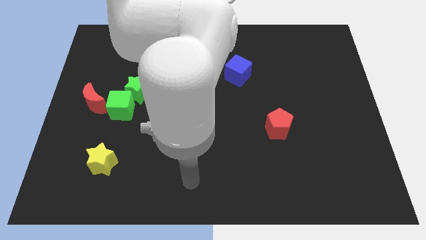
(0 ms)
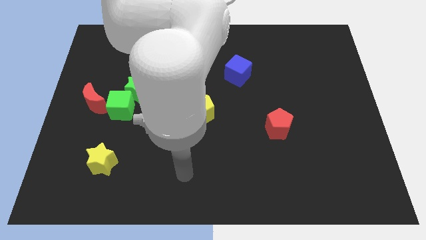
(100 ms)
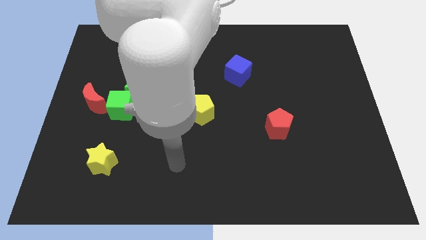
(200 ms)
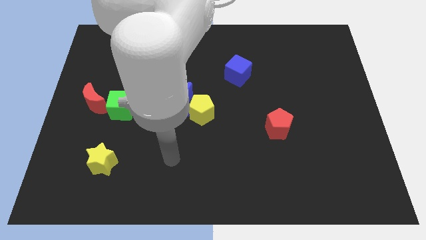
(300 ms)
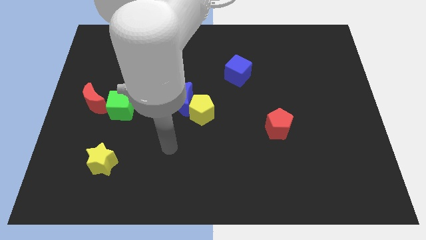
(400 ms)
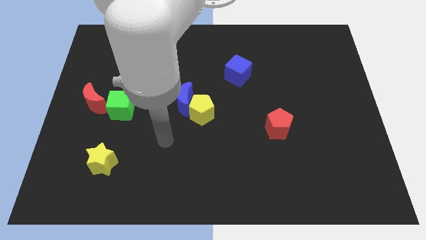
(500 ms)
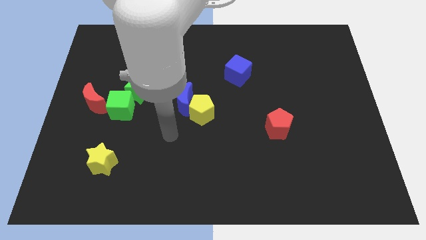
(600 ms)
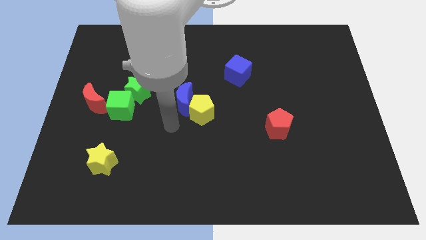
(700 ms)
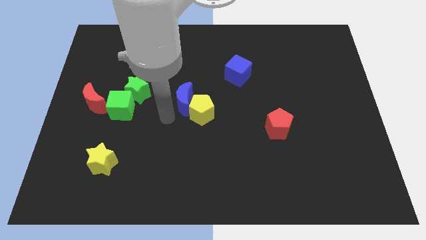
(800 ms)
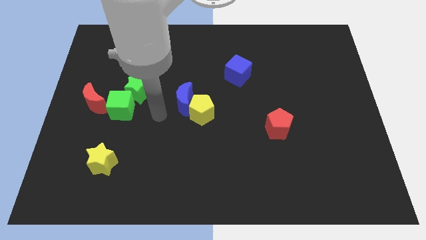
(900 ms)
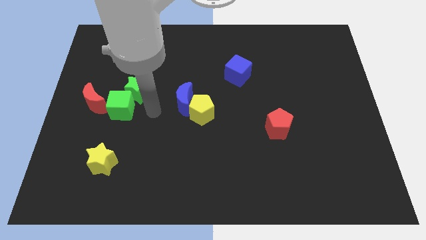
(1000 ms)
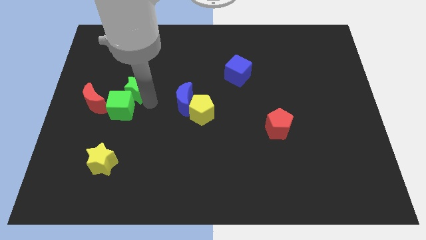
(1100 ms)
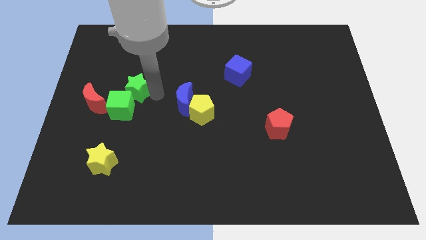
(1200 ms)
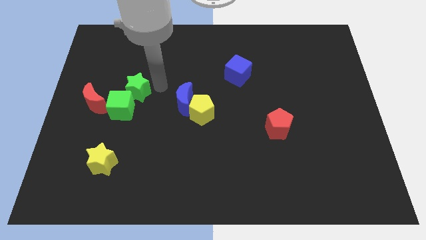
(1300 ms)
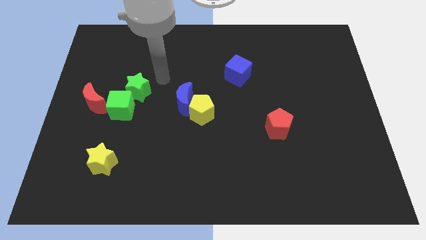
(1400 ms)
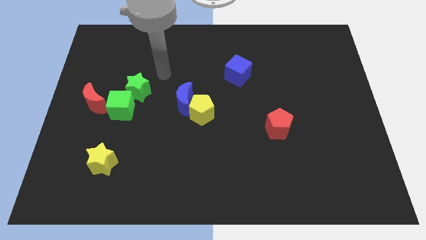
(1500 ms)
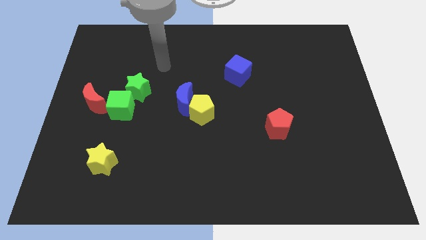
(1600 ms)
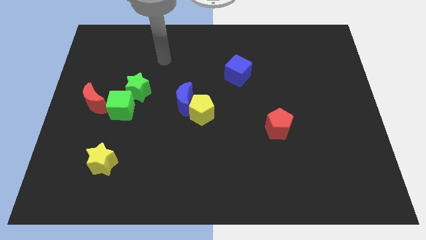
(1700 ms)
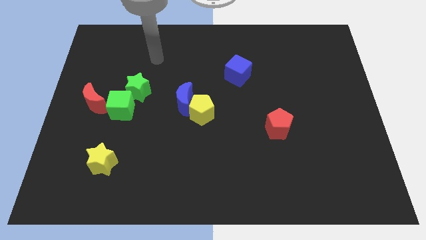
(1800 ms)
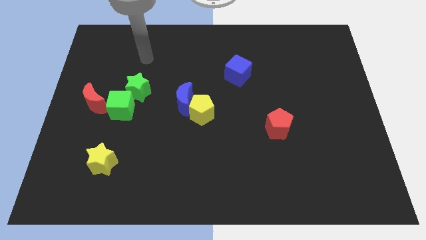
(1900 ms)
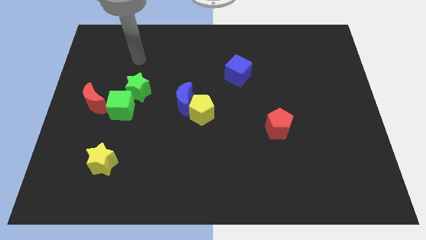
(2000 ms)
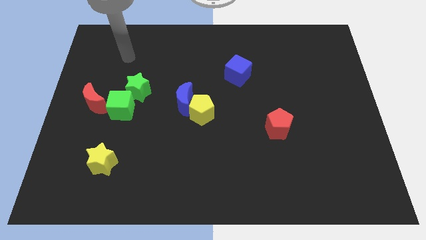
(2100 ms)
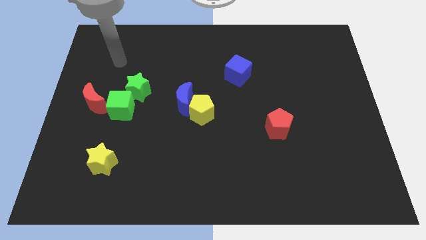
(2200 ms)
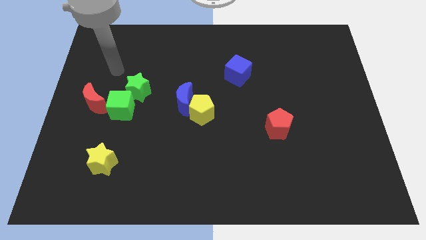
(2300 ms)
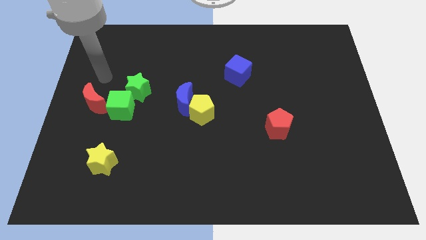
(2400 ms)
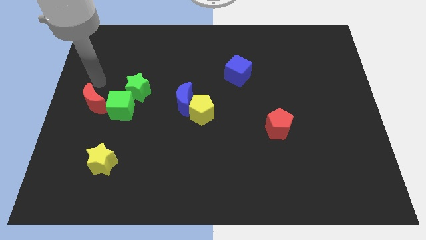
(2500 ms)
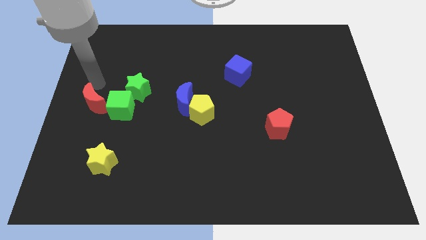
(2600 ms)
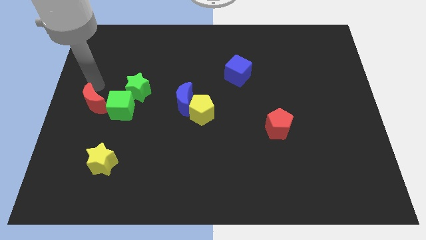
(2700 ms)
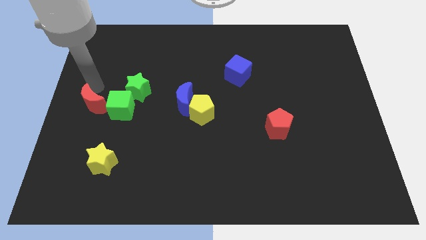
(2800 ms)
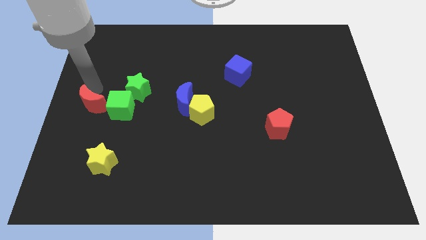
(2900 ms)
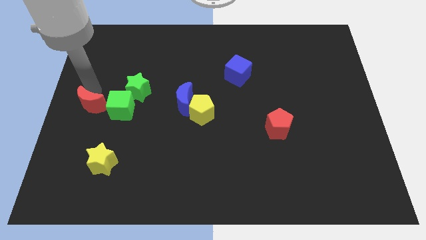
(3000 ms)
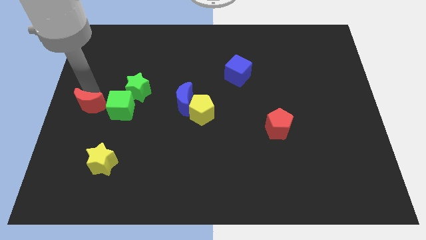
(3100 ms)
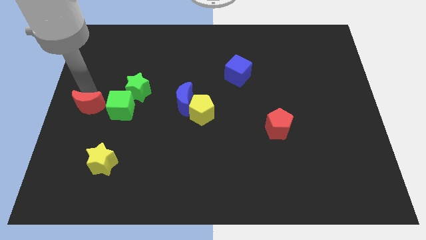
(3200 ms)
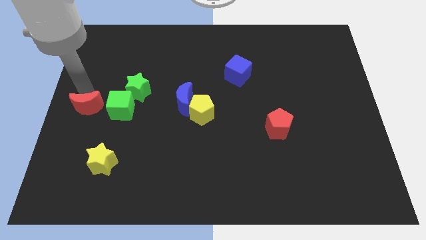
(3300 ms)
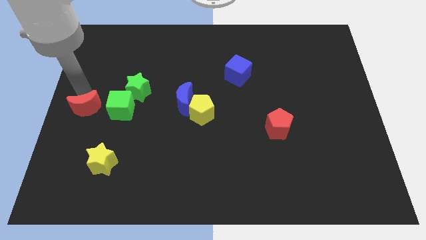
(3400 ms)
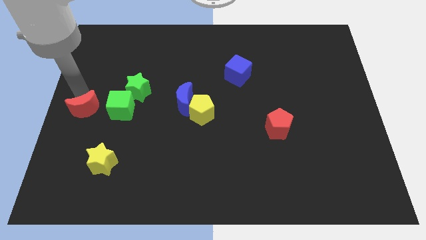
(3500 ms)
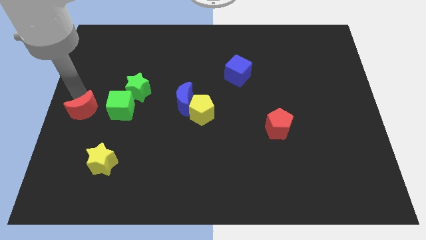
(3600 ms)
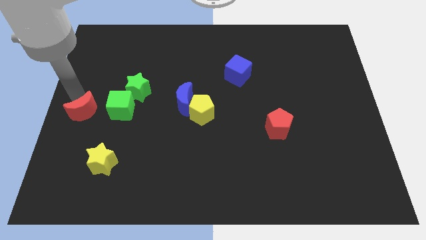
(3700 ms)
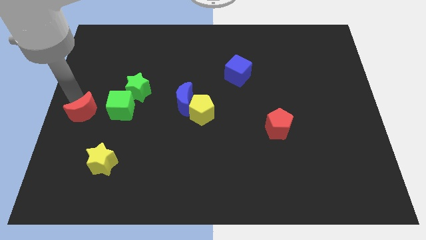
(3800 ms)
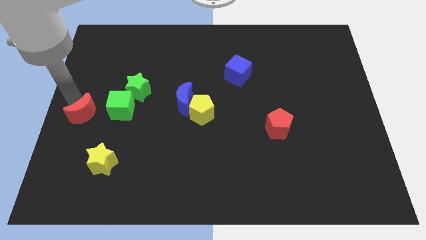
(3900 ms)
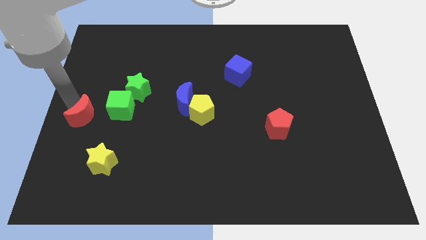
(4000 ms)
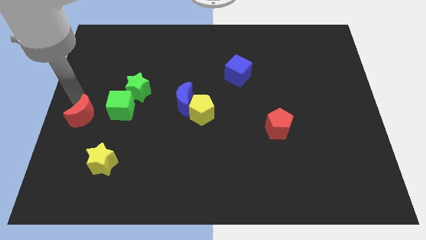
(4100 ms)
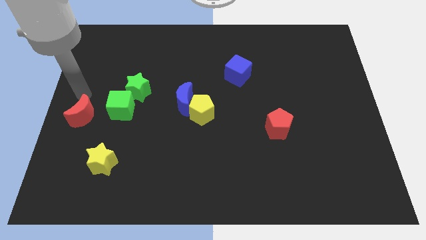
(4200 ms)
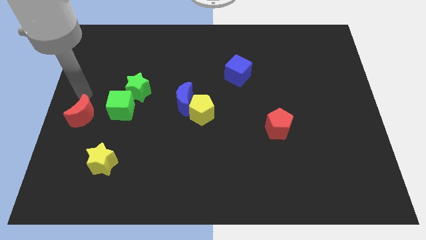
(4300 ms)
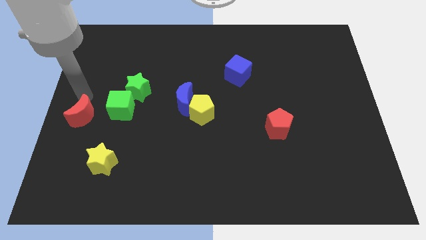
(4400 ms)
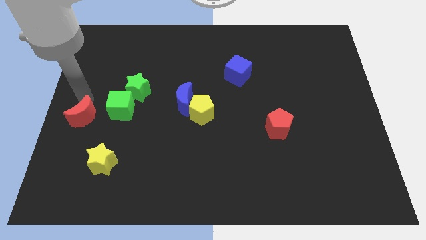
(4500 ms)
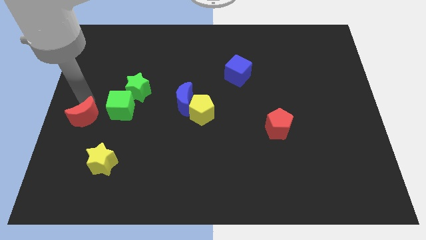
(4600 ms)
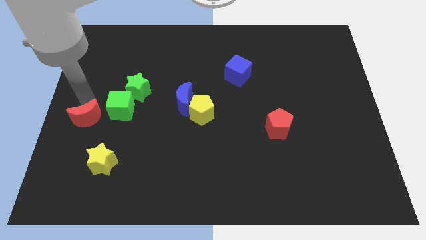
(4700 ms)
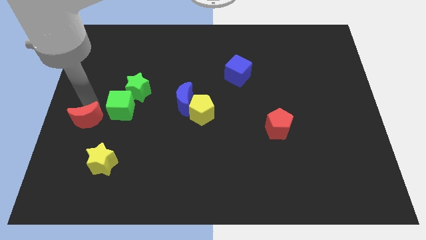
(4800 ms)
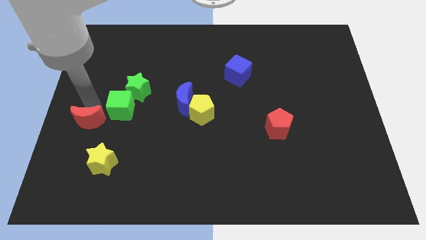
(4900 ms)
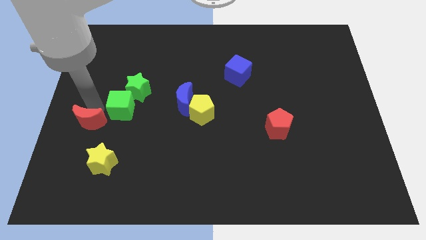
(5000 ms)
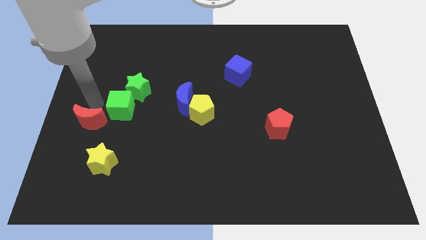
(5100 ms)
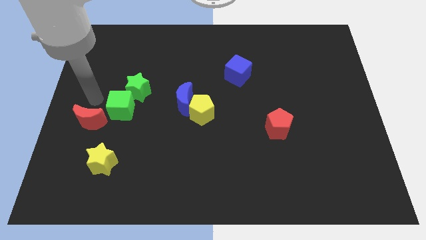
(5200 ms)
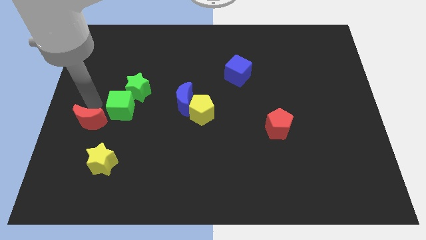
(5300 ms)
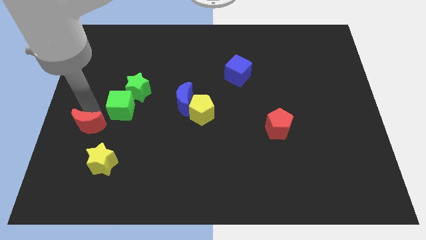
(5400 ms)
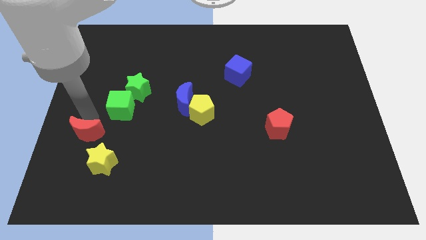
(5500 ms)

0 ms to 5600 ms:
move the red moon a little bit downwards

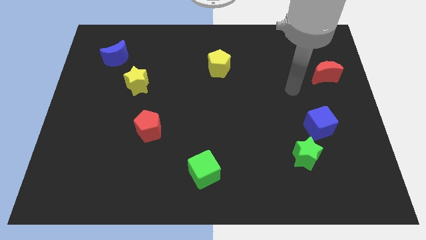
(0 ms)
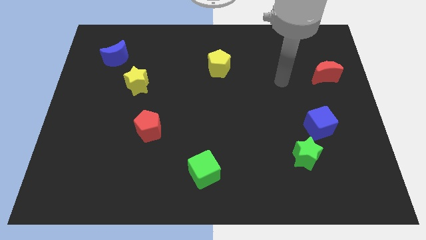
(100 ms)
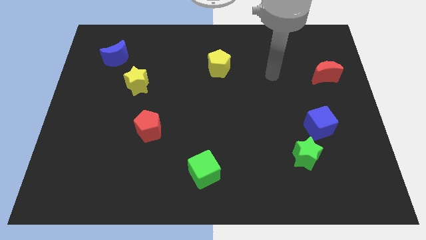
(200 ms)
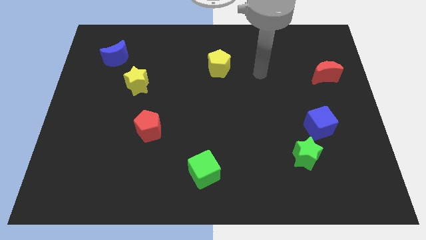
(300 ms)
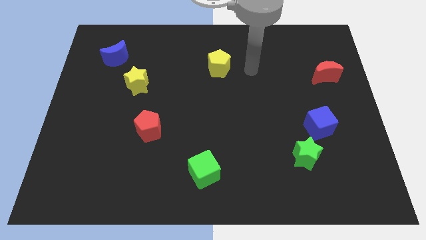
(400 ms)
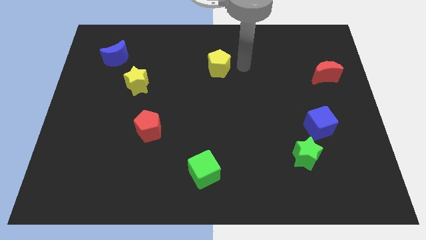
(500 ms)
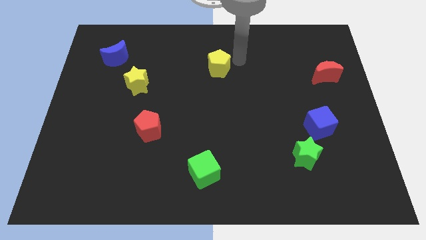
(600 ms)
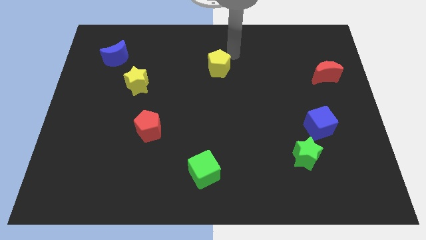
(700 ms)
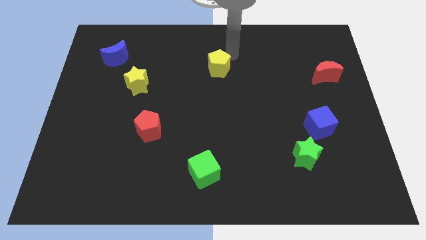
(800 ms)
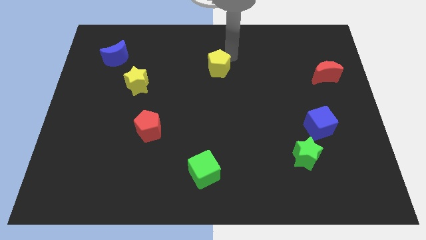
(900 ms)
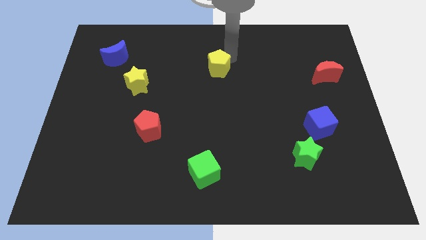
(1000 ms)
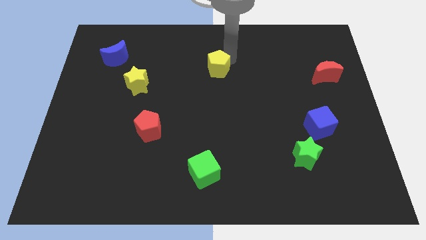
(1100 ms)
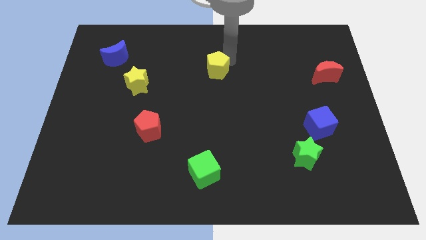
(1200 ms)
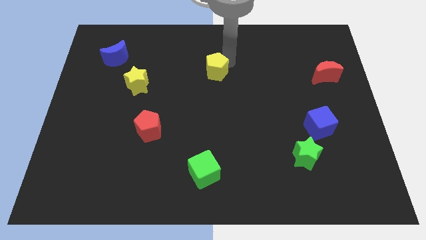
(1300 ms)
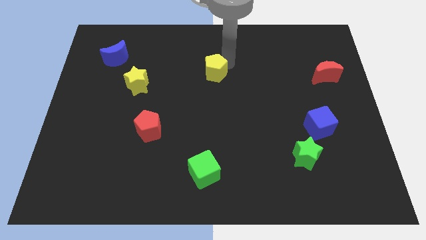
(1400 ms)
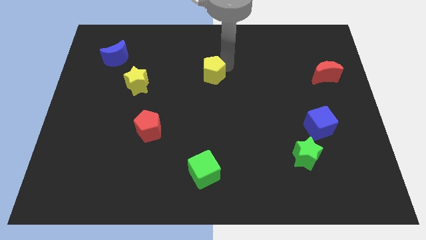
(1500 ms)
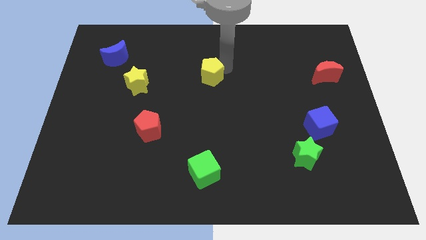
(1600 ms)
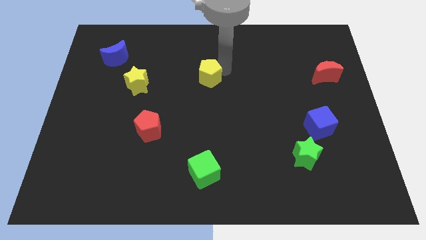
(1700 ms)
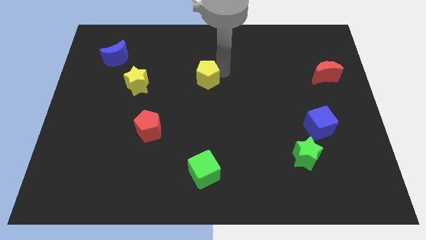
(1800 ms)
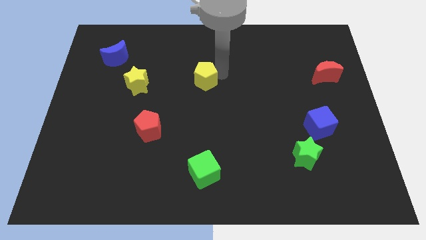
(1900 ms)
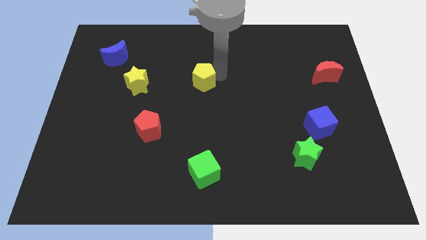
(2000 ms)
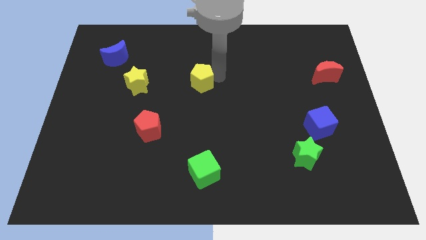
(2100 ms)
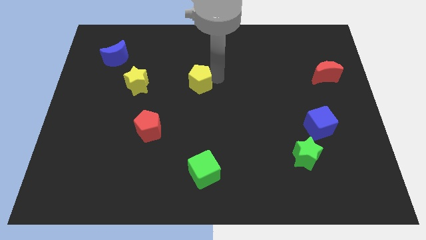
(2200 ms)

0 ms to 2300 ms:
move the yellow pentagon a bit diagonally downwards and to the left
